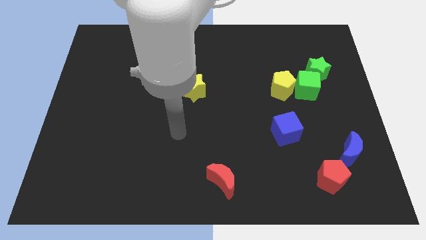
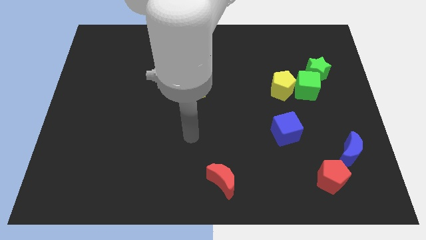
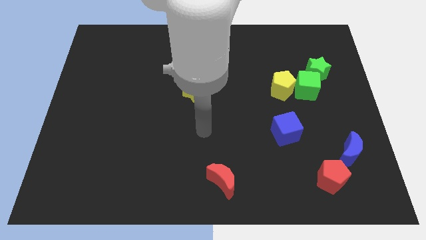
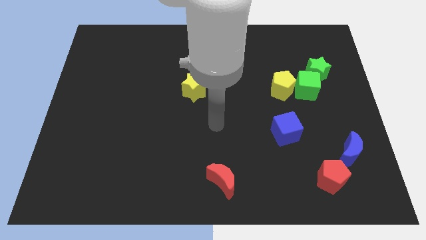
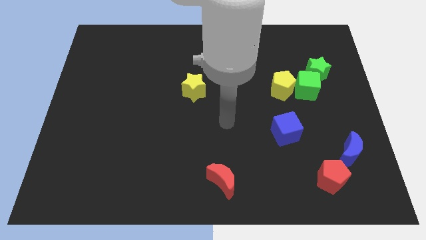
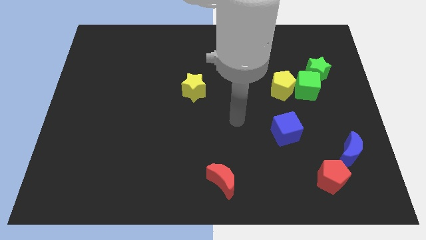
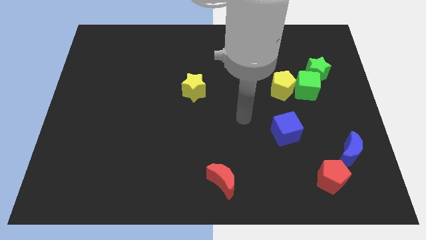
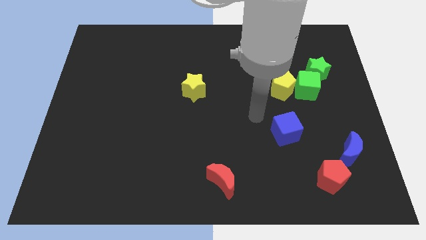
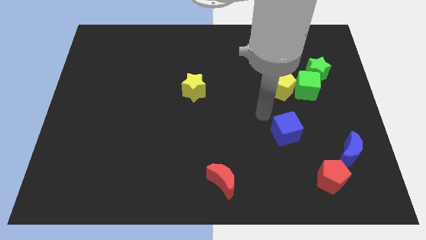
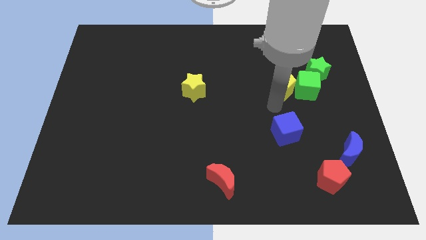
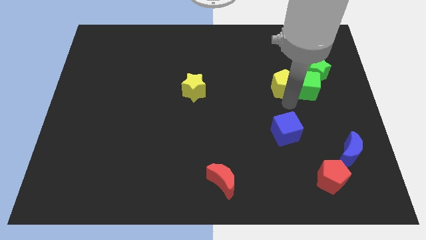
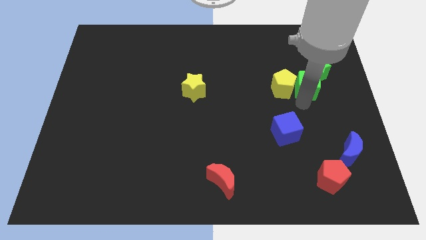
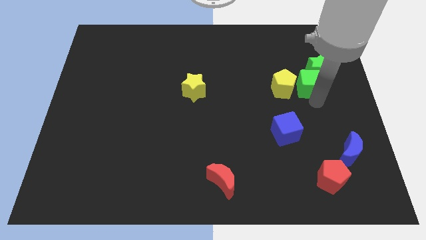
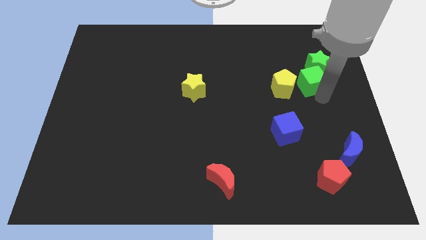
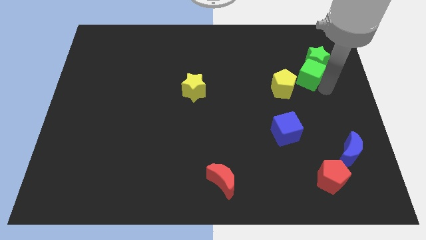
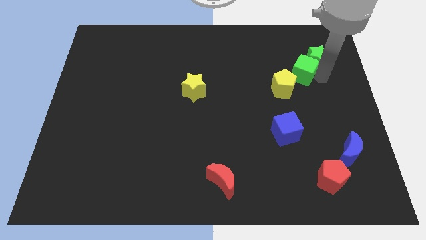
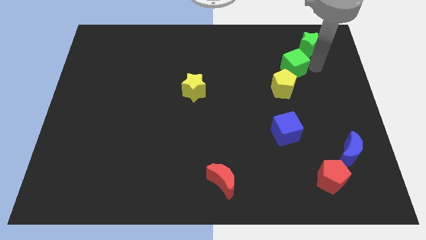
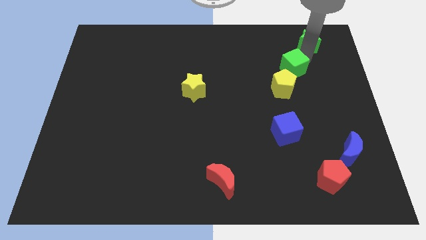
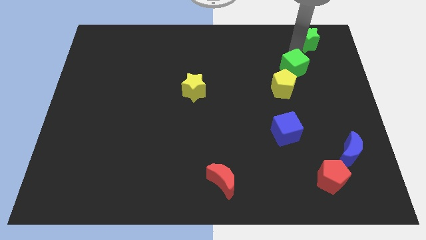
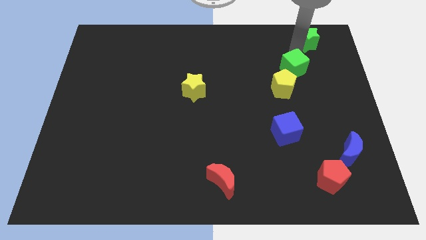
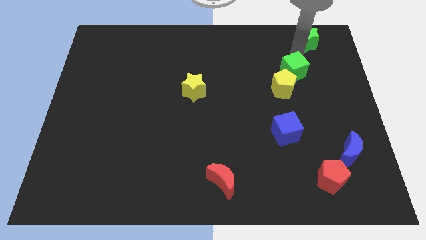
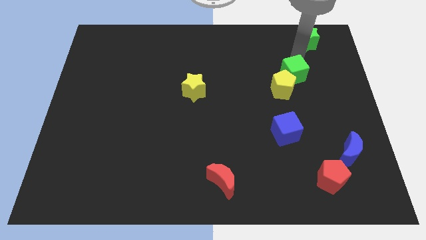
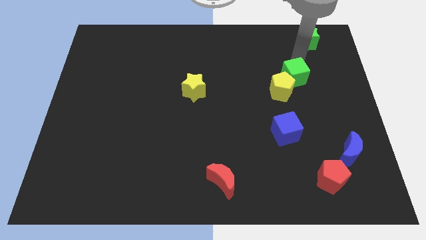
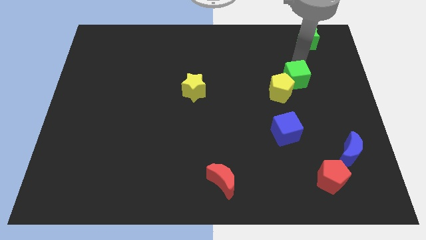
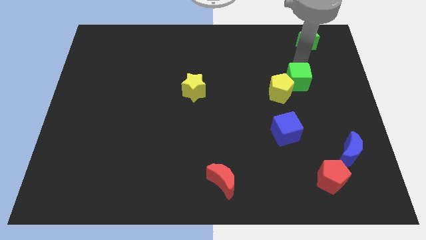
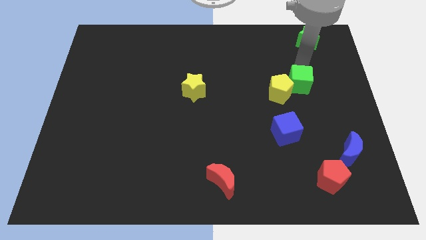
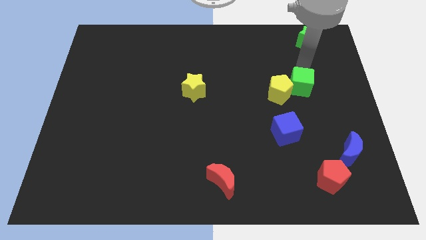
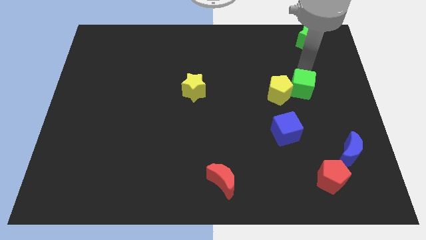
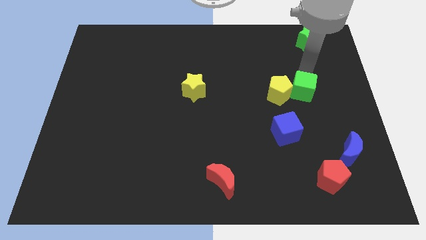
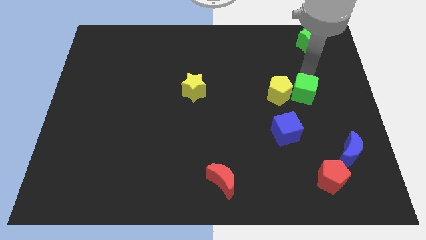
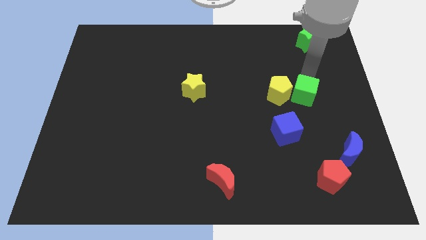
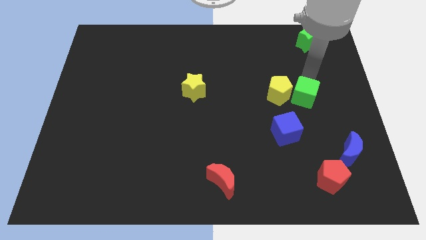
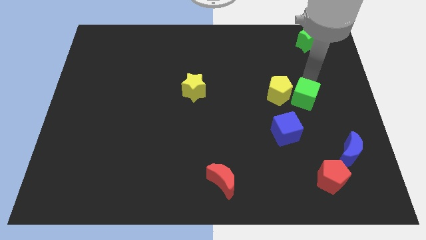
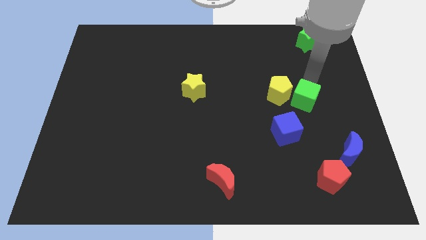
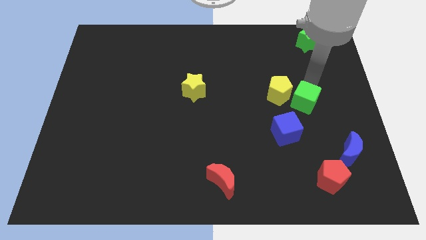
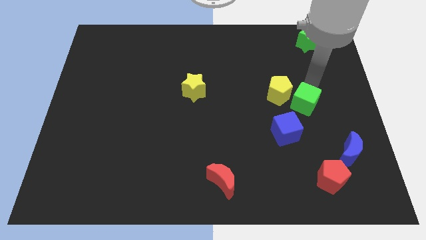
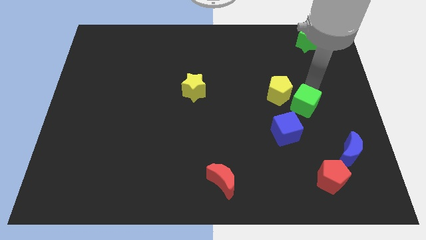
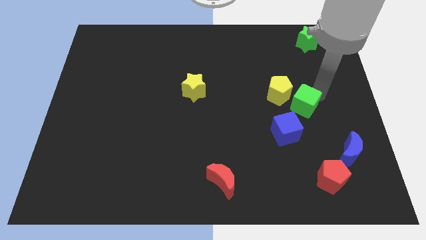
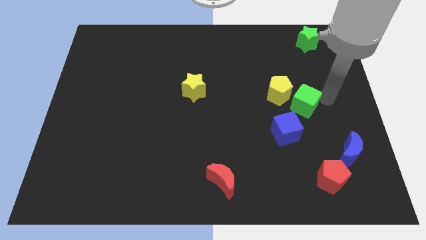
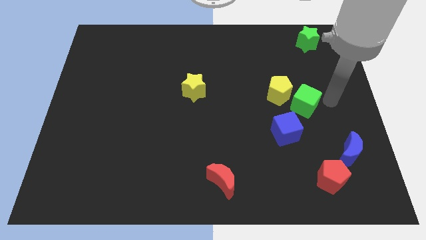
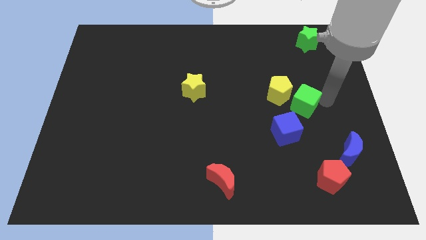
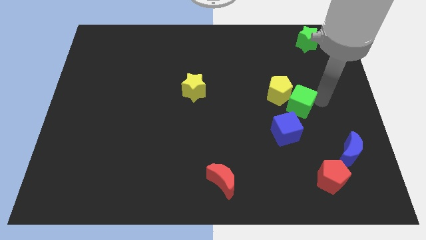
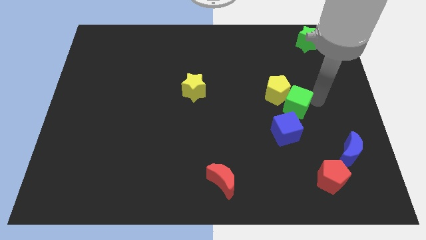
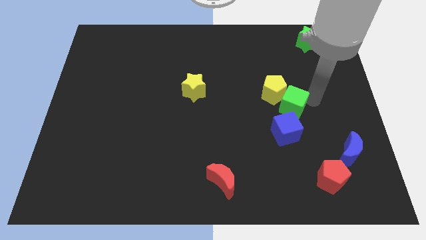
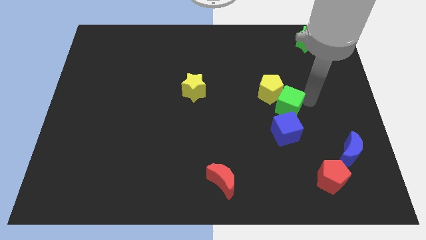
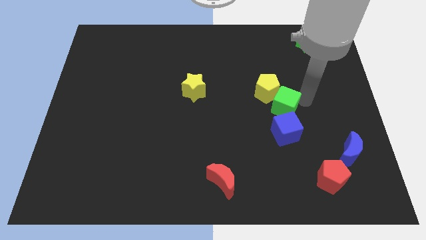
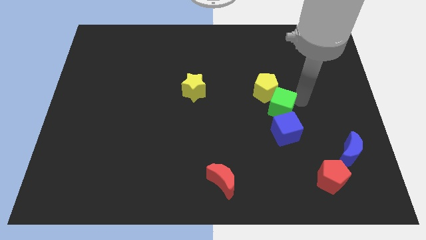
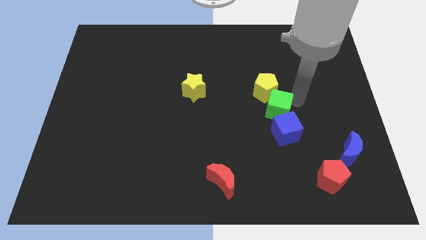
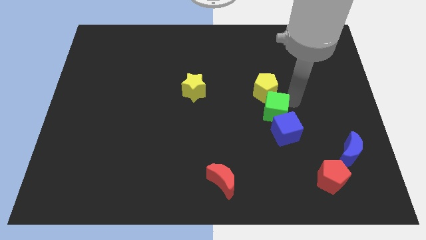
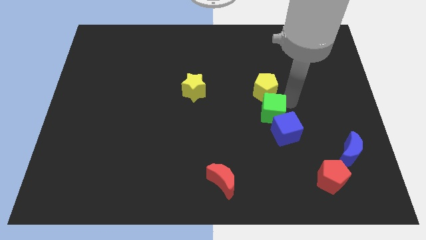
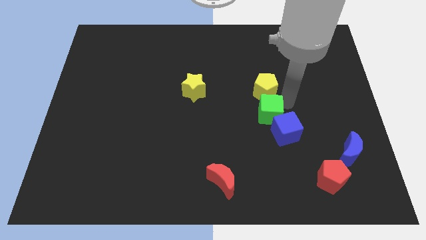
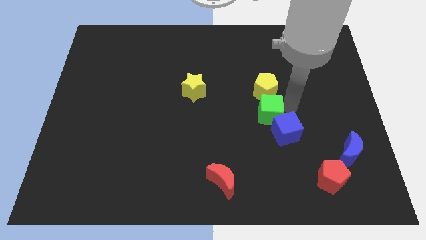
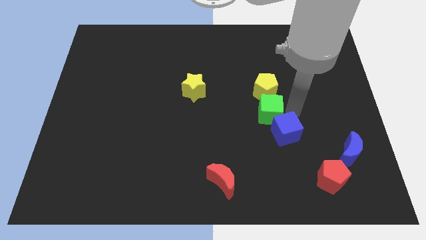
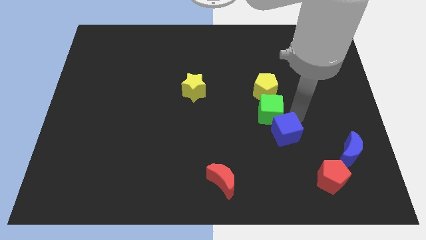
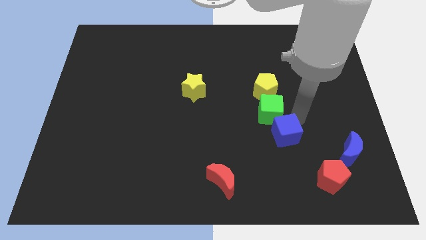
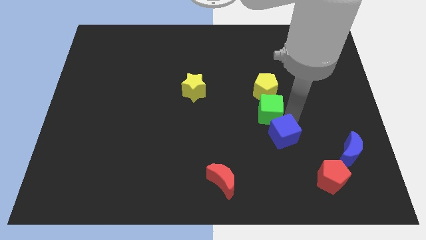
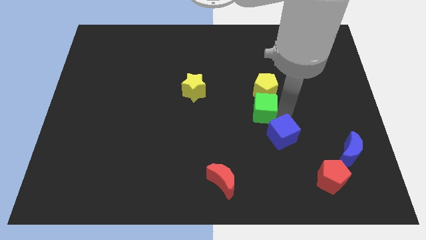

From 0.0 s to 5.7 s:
move the green cube to the bottom left side of the yellow pentagon

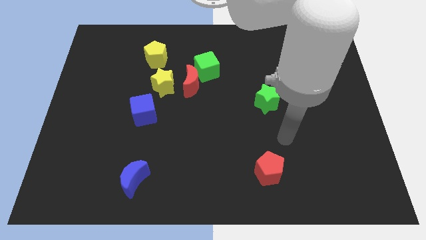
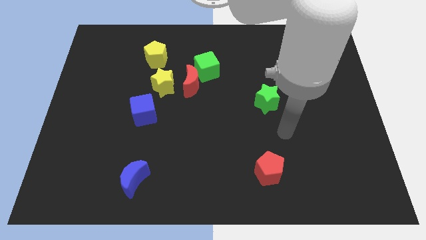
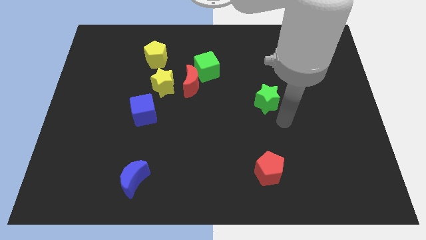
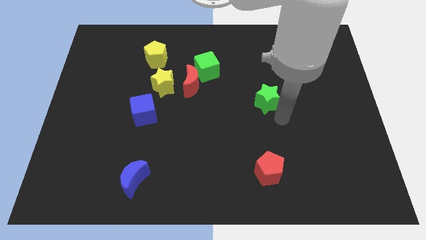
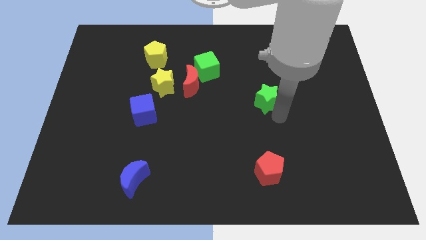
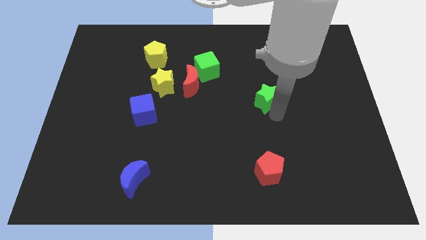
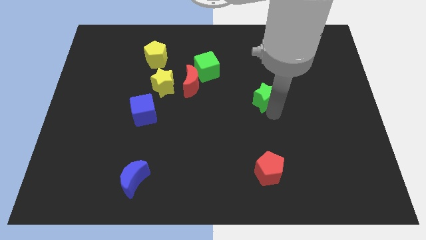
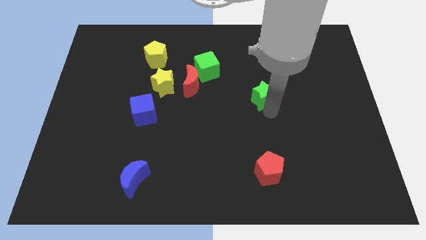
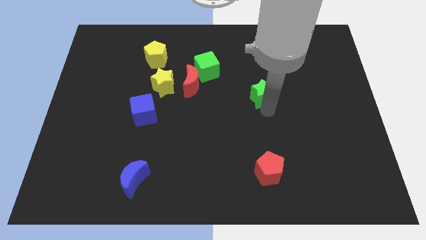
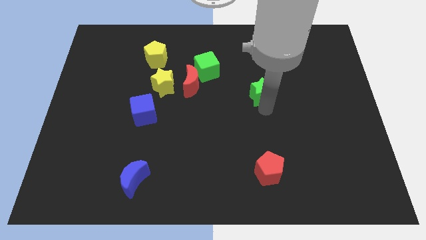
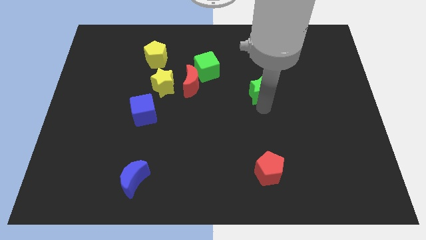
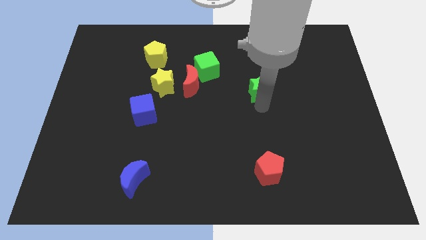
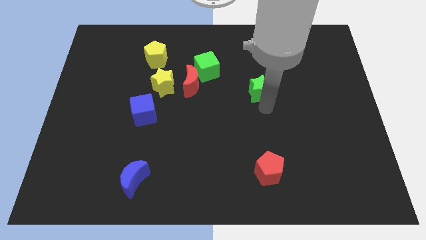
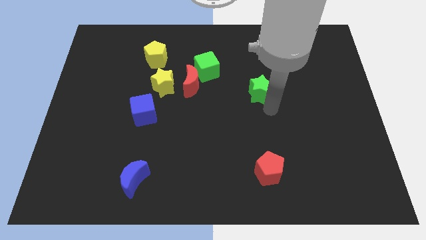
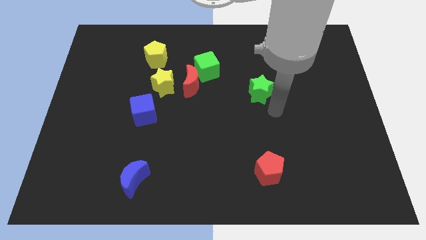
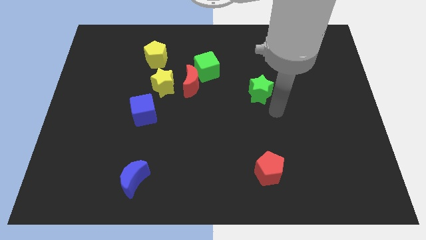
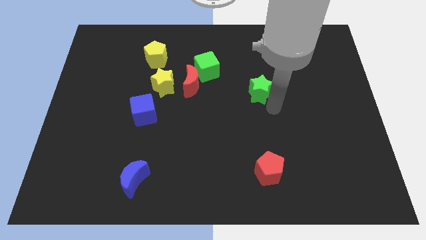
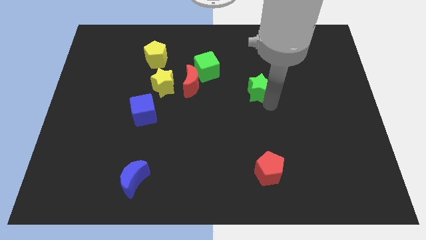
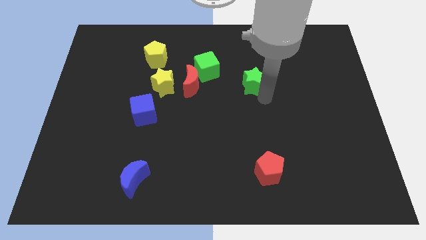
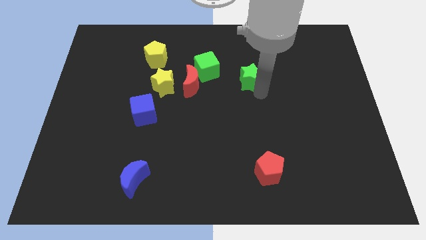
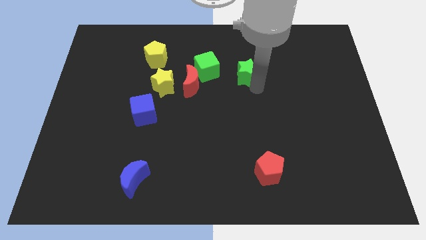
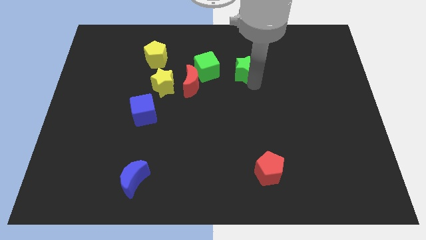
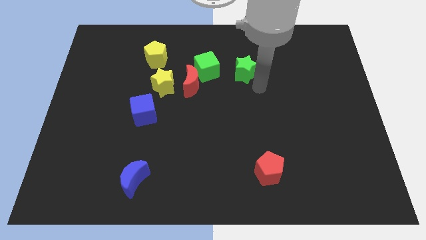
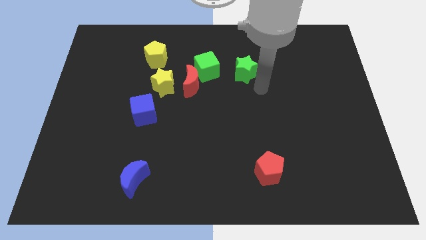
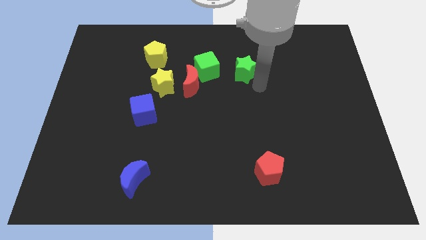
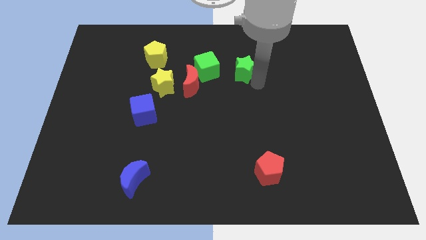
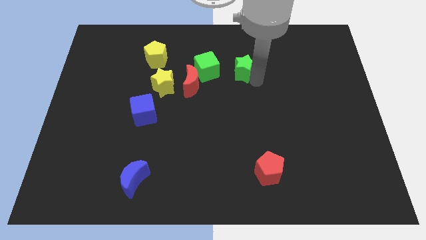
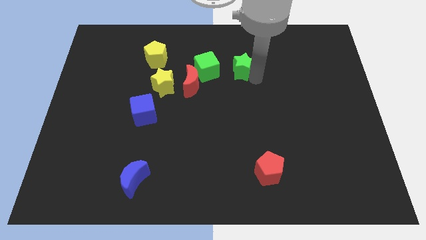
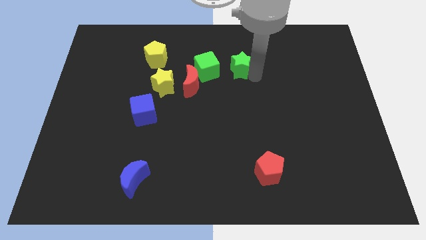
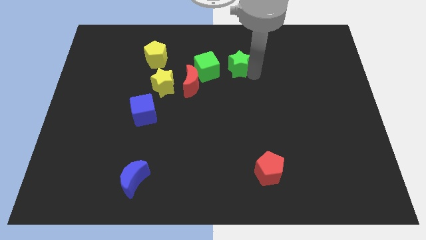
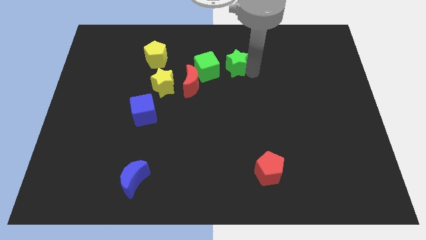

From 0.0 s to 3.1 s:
move the green star to the top right side of the green cube
